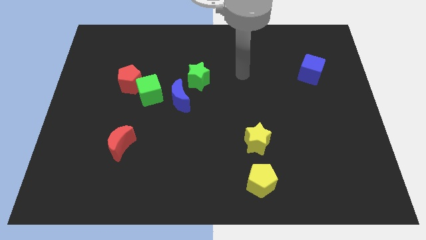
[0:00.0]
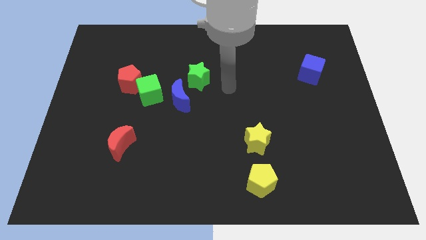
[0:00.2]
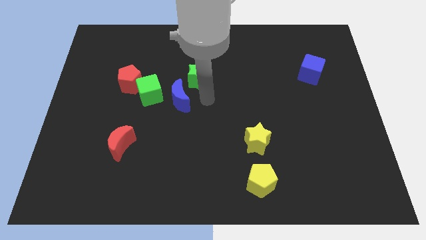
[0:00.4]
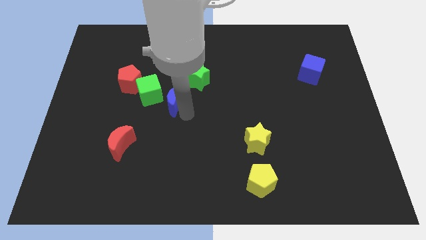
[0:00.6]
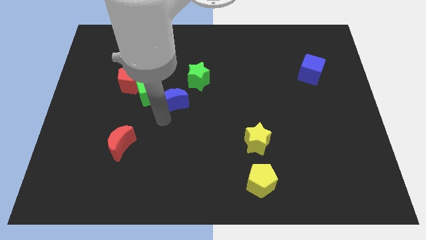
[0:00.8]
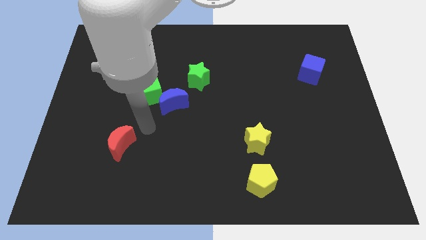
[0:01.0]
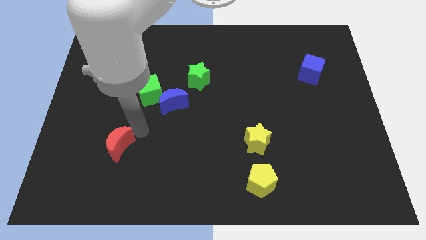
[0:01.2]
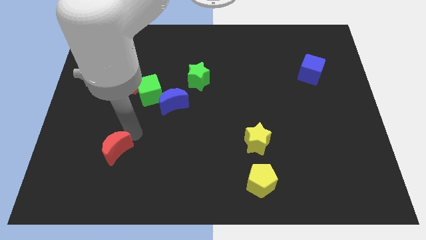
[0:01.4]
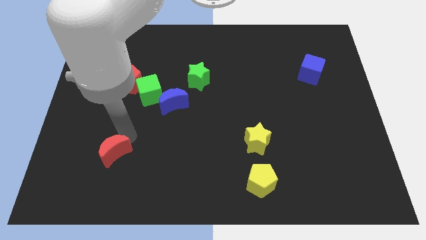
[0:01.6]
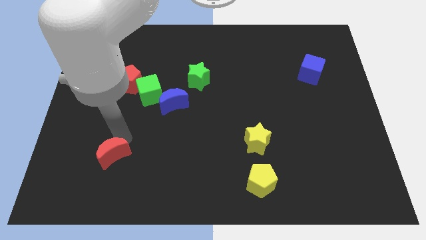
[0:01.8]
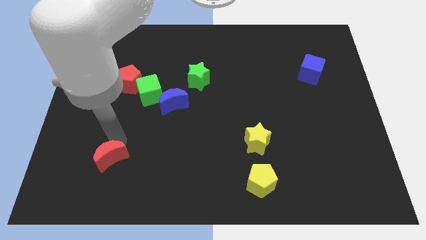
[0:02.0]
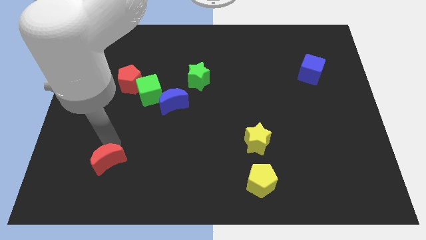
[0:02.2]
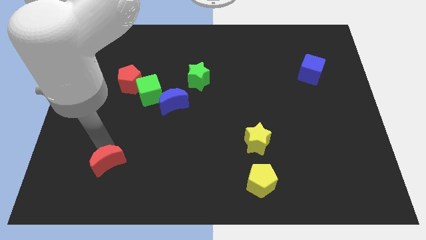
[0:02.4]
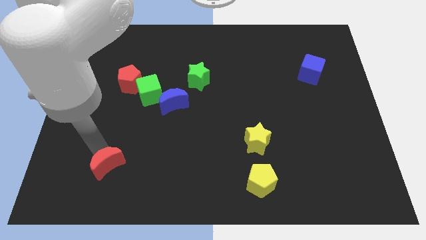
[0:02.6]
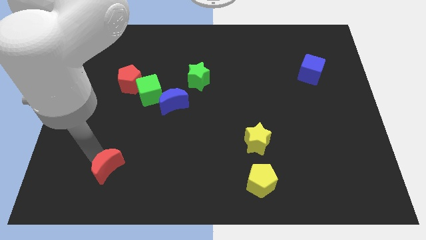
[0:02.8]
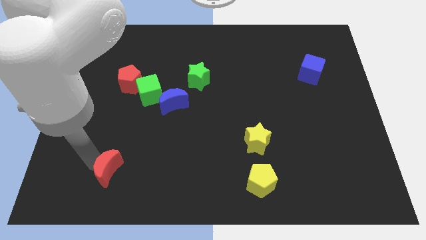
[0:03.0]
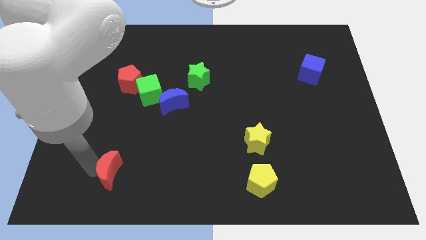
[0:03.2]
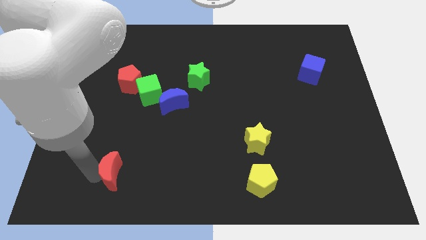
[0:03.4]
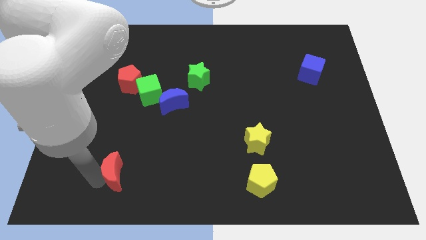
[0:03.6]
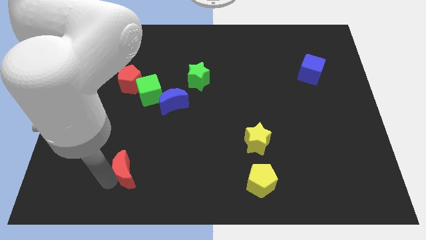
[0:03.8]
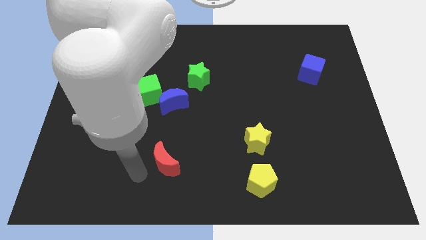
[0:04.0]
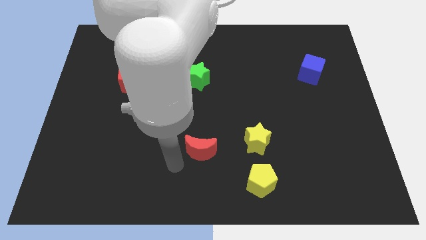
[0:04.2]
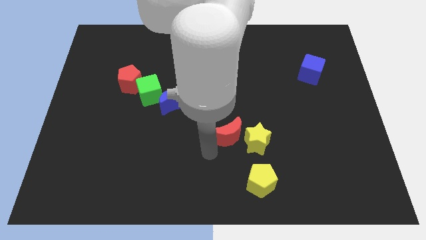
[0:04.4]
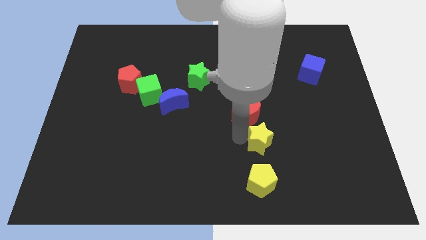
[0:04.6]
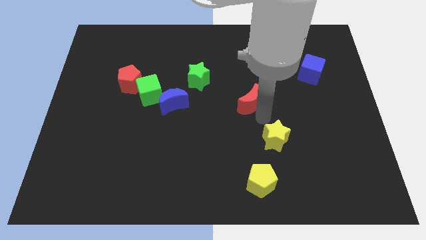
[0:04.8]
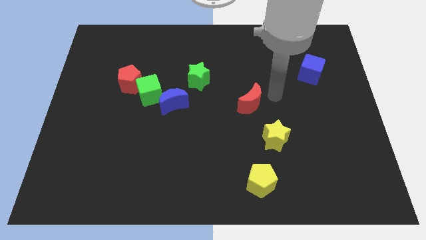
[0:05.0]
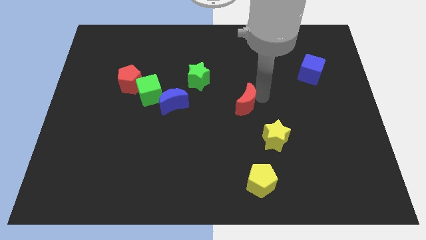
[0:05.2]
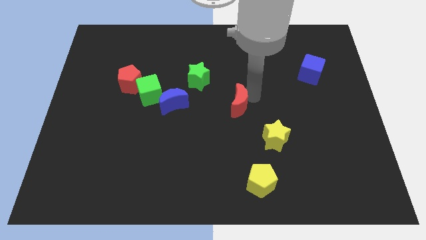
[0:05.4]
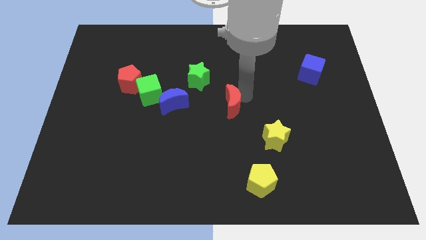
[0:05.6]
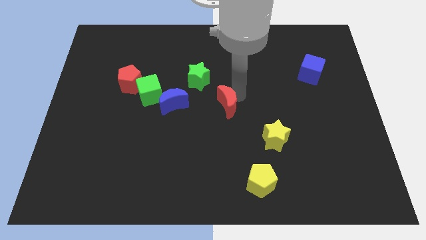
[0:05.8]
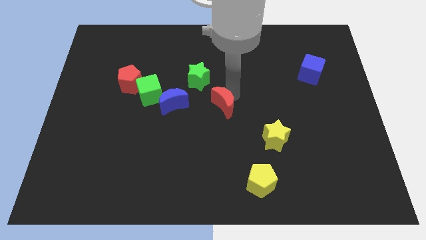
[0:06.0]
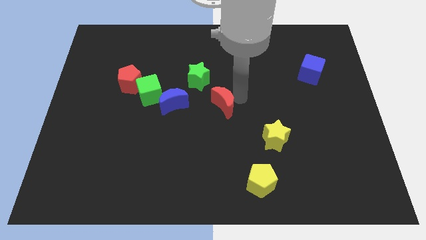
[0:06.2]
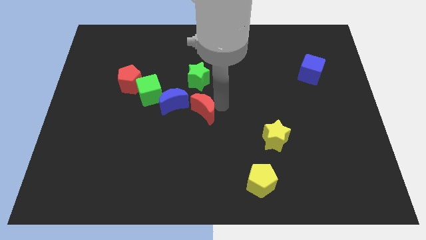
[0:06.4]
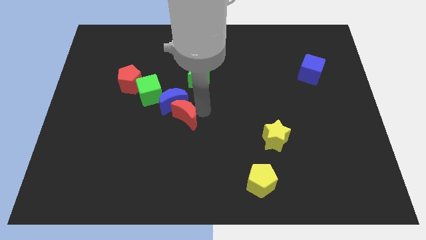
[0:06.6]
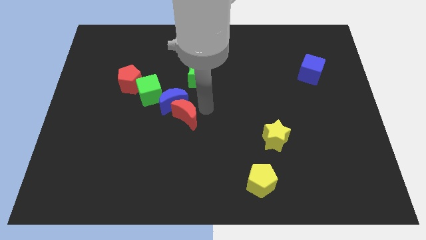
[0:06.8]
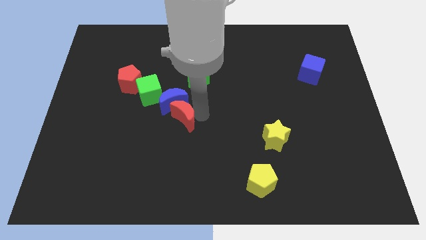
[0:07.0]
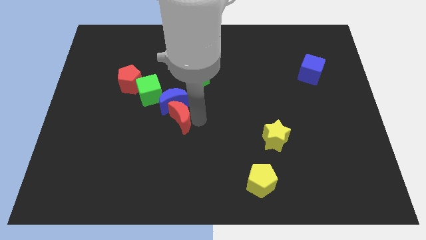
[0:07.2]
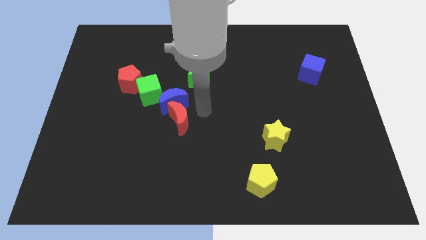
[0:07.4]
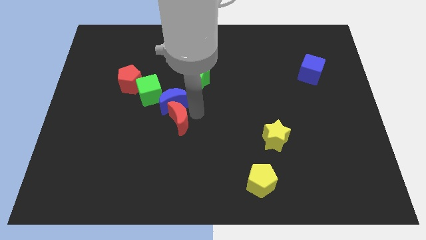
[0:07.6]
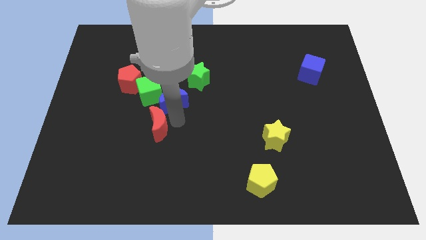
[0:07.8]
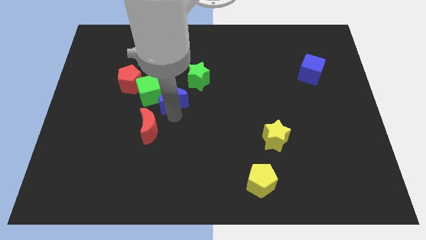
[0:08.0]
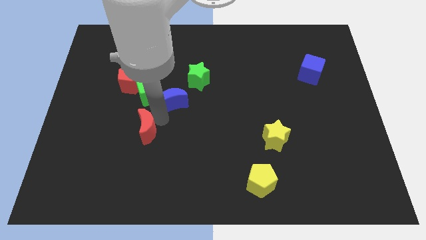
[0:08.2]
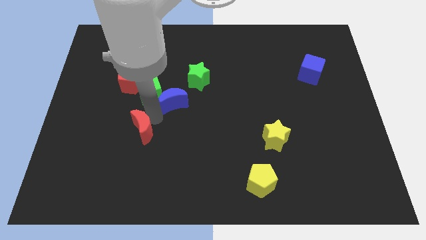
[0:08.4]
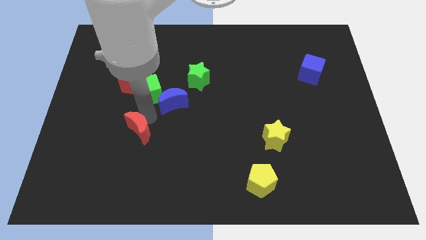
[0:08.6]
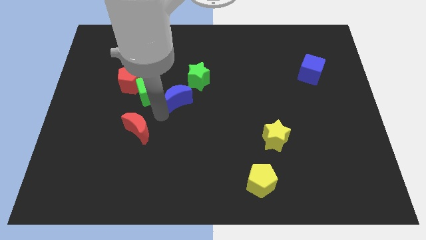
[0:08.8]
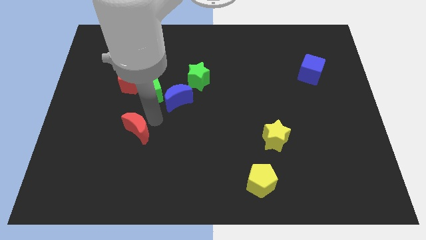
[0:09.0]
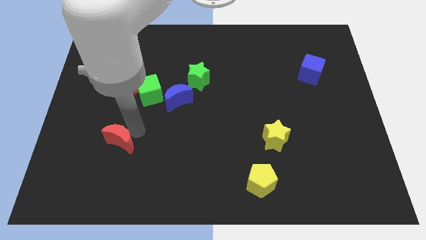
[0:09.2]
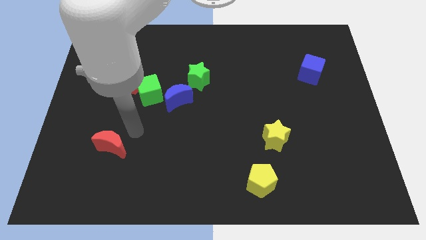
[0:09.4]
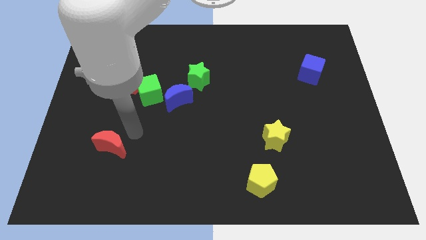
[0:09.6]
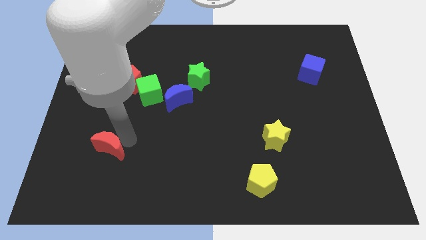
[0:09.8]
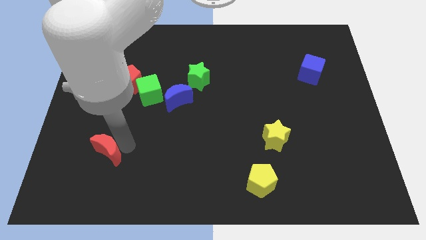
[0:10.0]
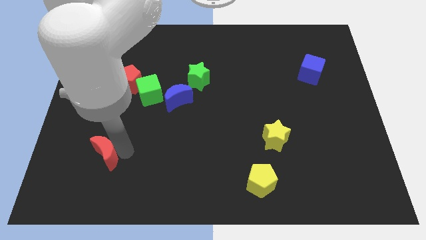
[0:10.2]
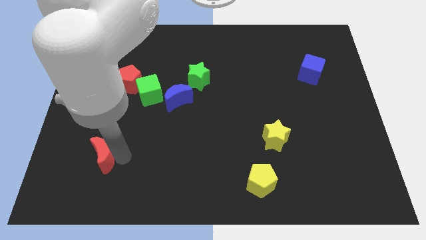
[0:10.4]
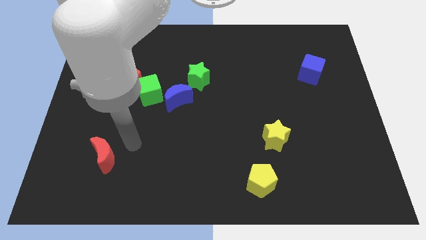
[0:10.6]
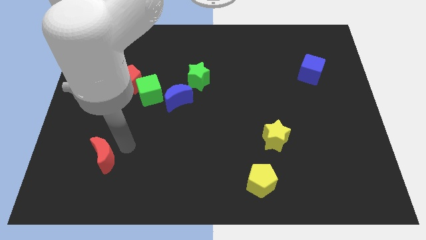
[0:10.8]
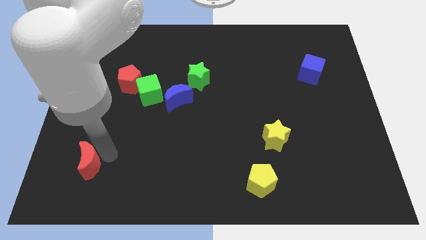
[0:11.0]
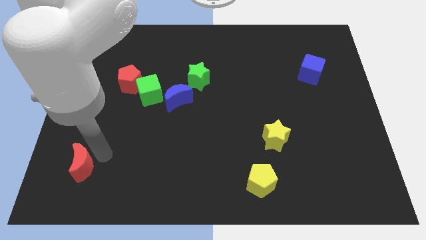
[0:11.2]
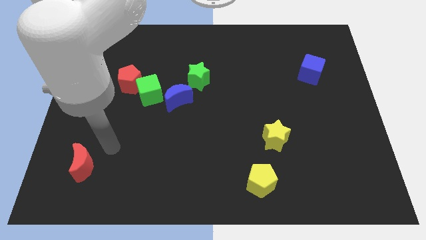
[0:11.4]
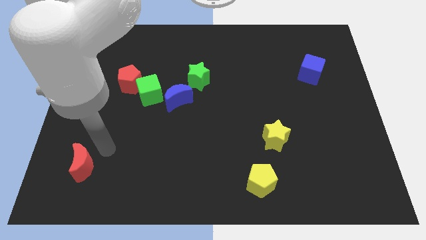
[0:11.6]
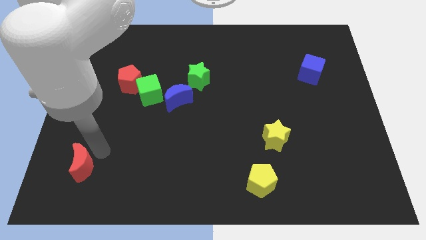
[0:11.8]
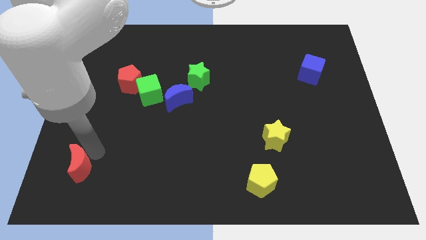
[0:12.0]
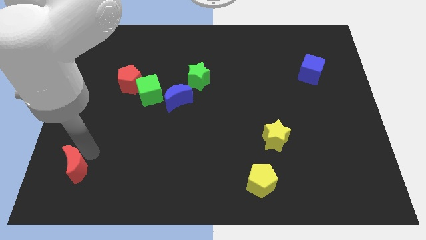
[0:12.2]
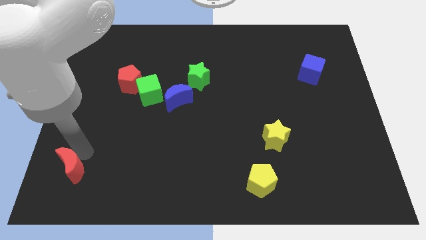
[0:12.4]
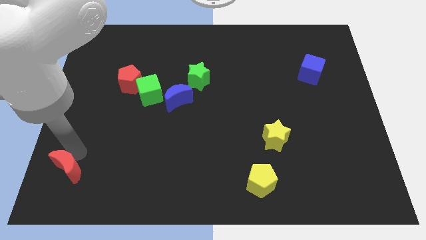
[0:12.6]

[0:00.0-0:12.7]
move the red moon to the bottom left

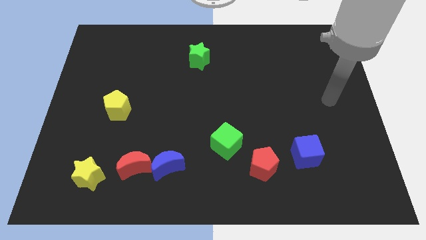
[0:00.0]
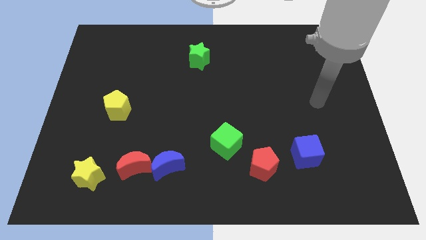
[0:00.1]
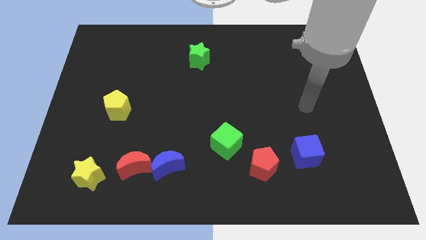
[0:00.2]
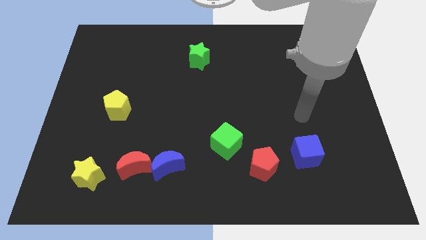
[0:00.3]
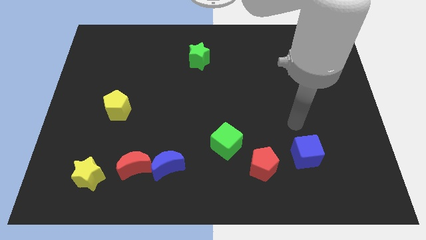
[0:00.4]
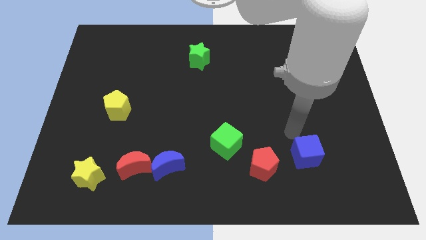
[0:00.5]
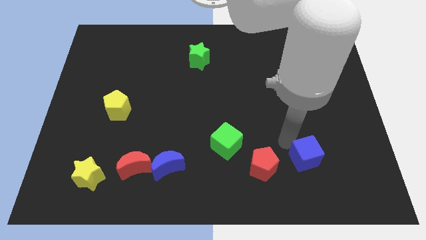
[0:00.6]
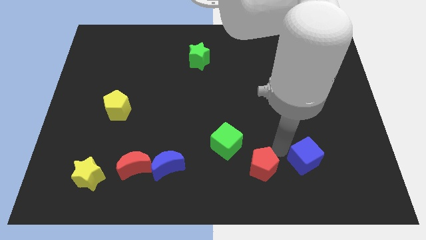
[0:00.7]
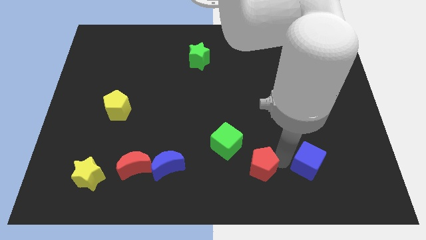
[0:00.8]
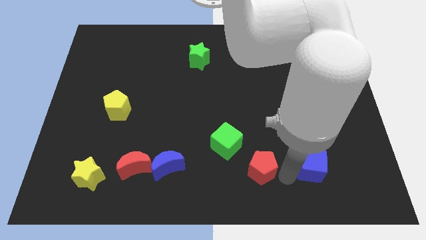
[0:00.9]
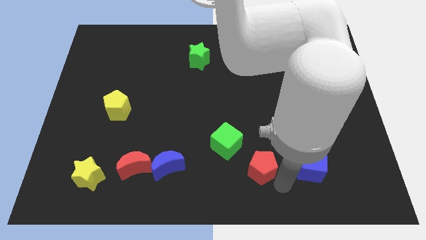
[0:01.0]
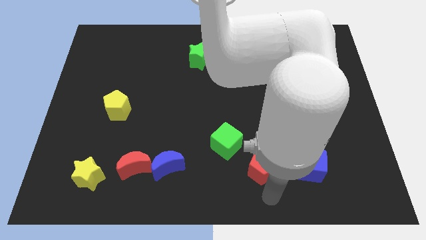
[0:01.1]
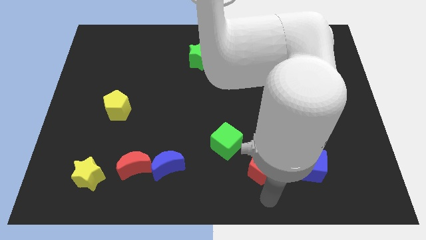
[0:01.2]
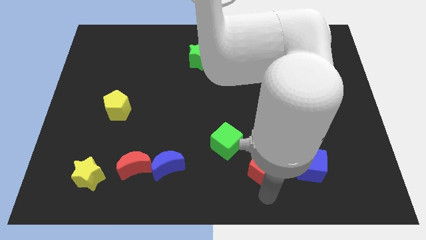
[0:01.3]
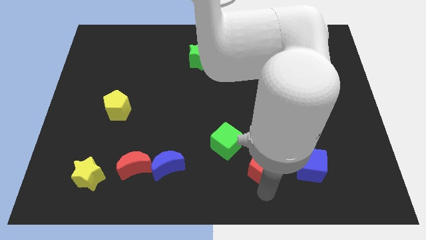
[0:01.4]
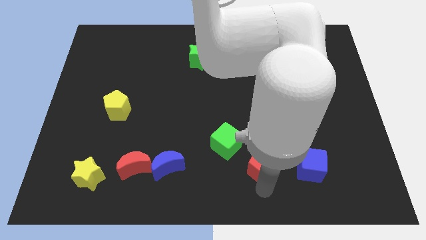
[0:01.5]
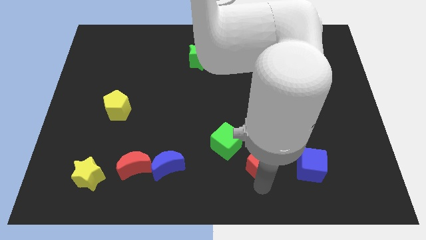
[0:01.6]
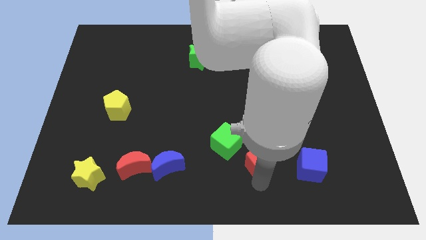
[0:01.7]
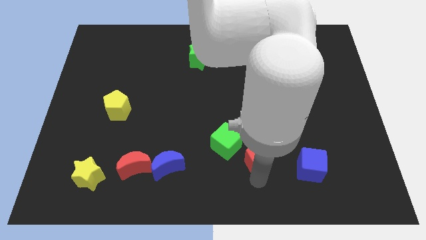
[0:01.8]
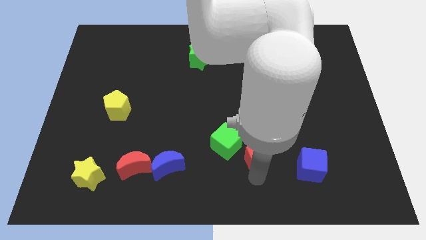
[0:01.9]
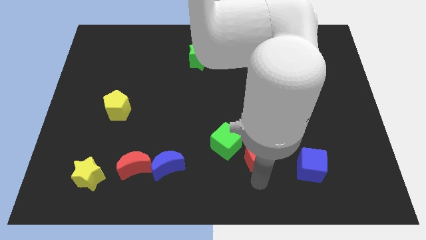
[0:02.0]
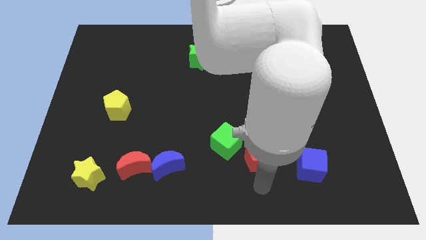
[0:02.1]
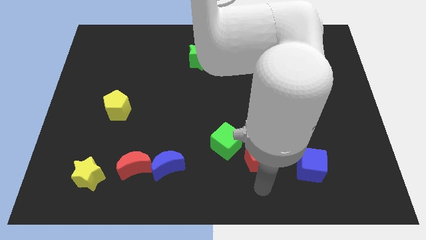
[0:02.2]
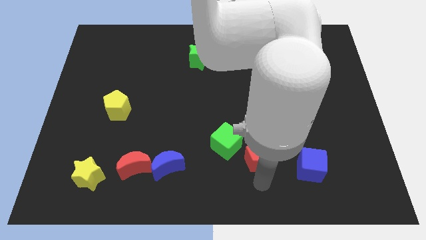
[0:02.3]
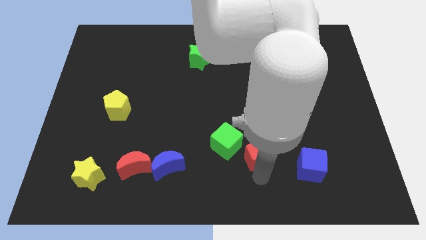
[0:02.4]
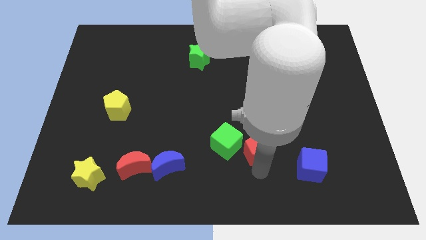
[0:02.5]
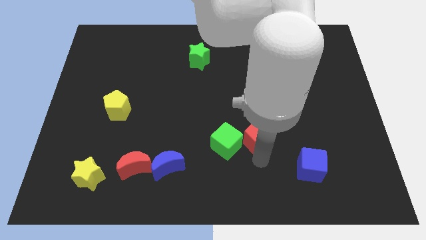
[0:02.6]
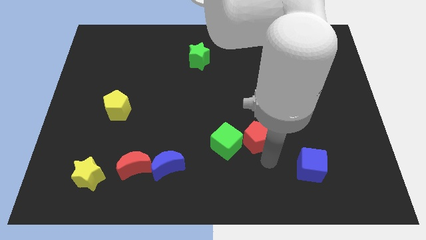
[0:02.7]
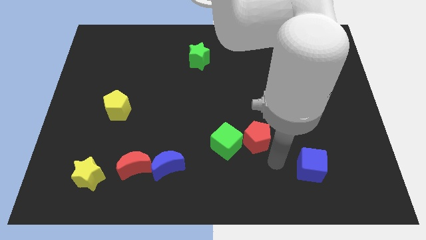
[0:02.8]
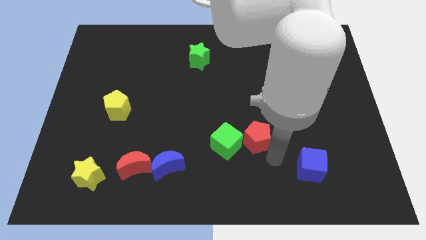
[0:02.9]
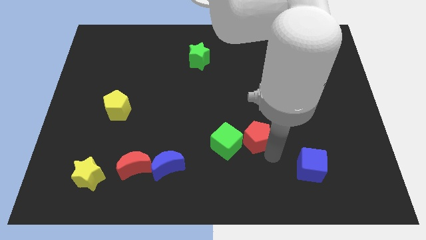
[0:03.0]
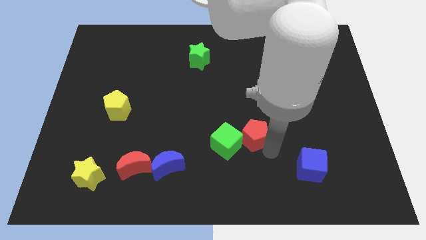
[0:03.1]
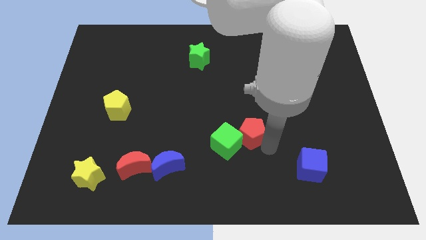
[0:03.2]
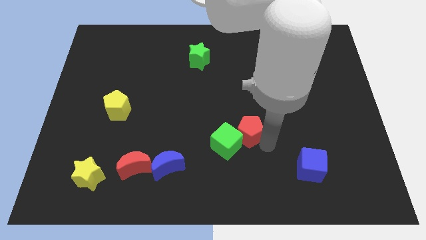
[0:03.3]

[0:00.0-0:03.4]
slide the red pentagon to the middle of the board
